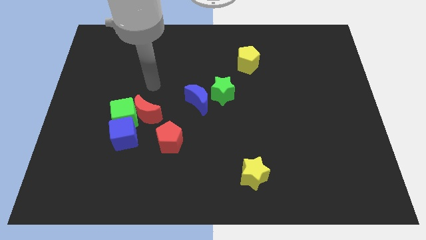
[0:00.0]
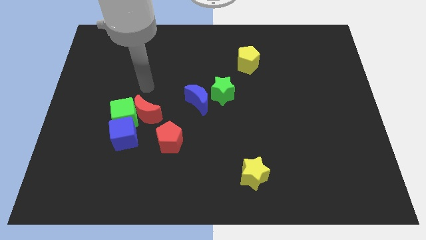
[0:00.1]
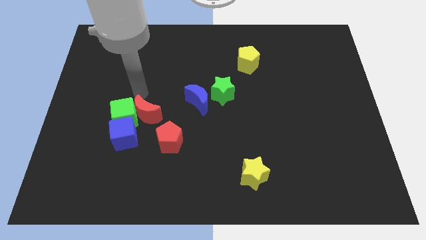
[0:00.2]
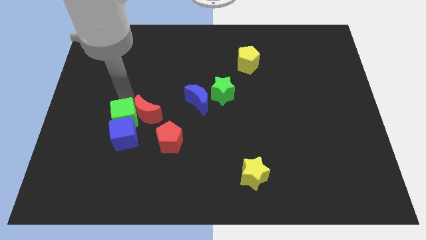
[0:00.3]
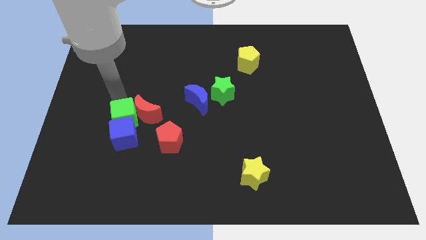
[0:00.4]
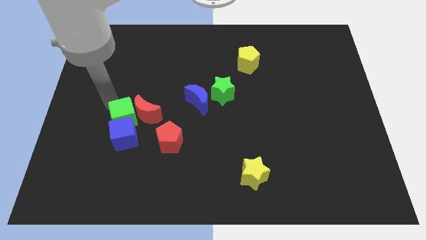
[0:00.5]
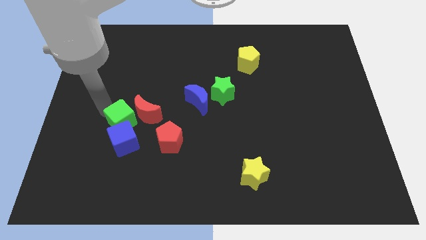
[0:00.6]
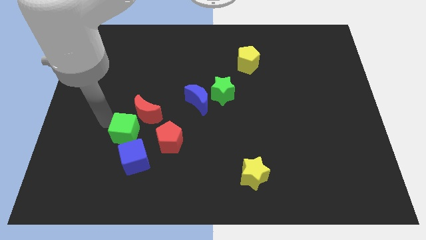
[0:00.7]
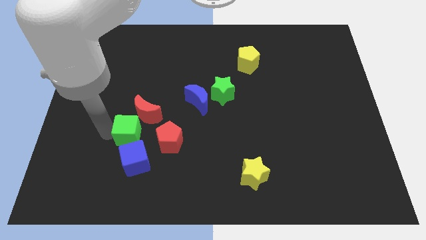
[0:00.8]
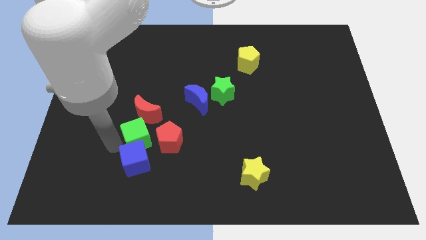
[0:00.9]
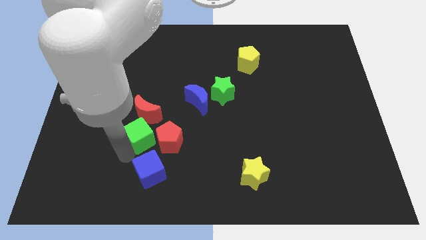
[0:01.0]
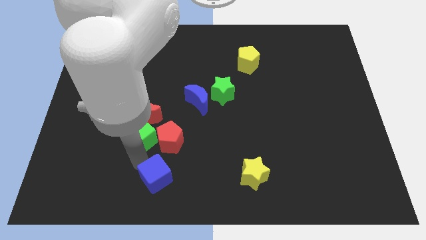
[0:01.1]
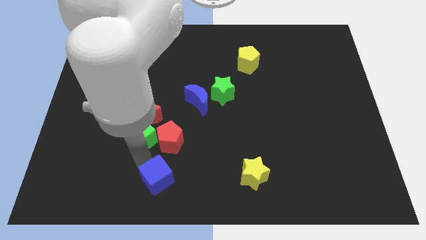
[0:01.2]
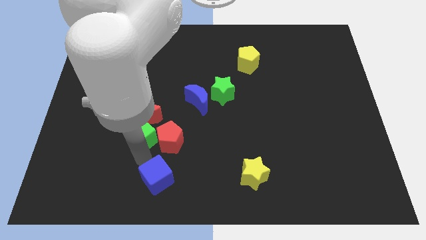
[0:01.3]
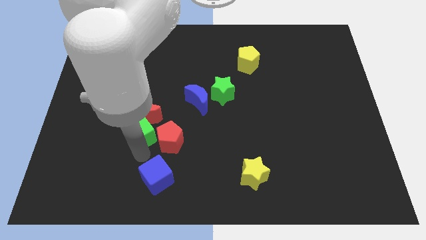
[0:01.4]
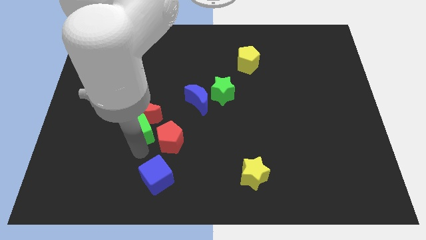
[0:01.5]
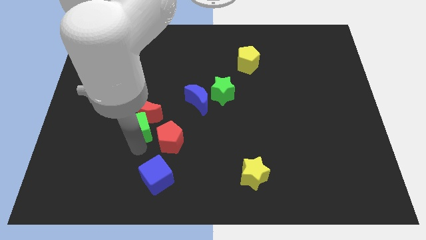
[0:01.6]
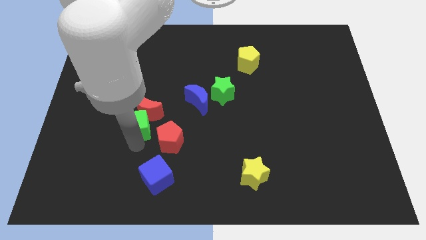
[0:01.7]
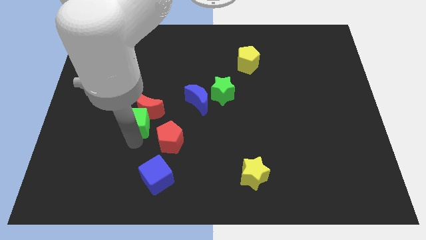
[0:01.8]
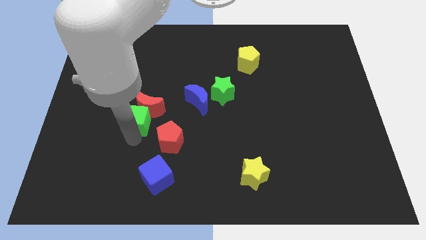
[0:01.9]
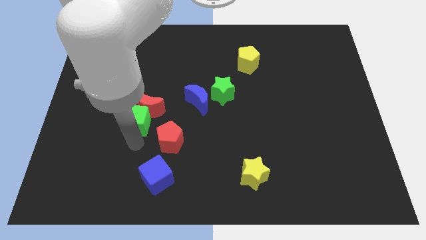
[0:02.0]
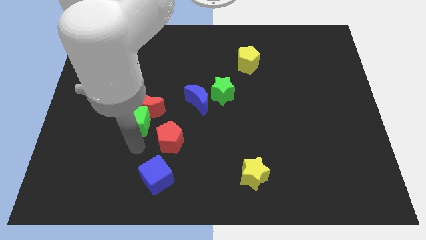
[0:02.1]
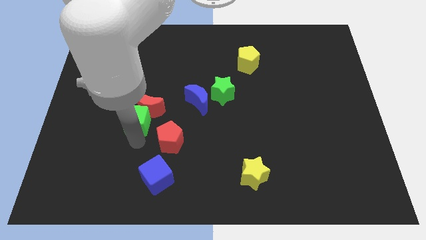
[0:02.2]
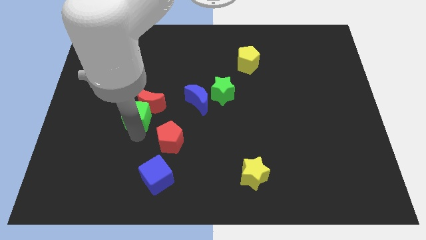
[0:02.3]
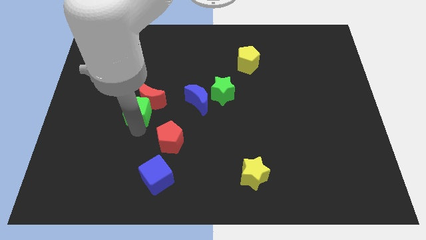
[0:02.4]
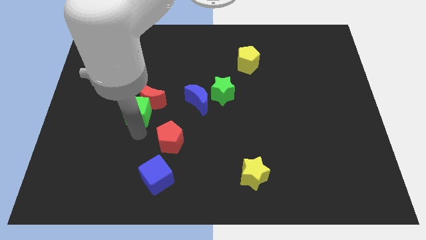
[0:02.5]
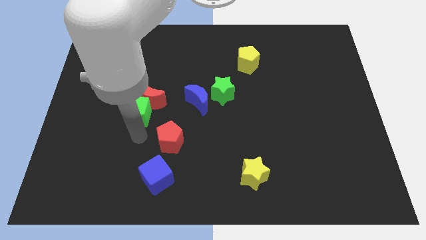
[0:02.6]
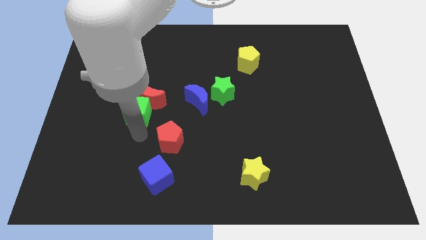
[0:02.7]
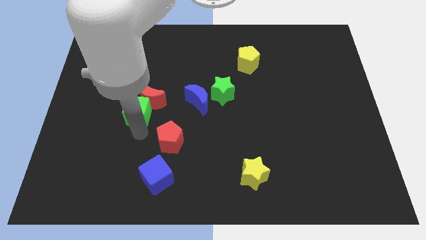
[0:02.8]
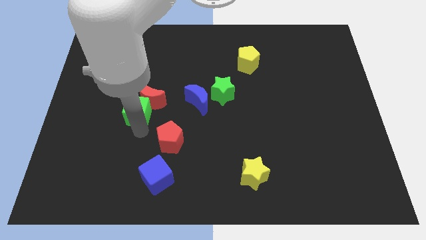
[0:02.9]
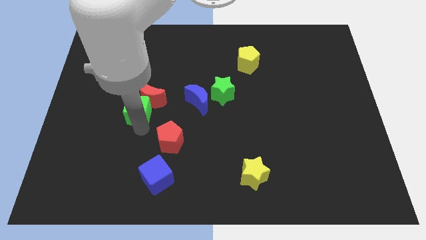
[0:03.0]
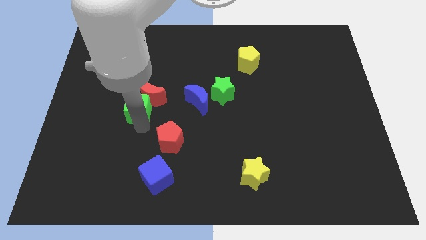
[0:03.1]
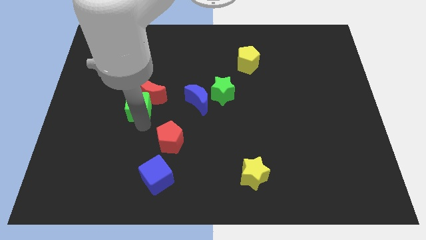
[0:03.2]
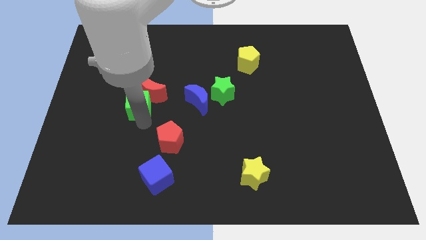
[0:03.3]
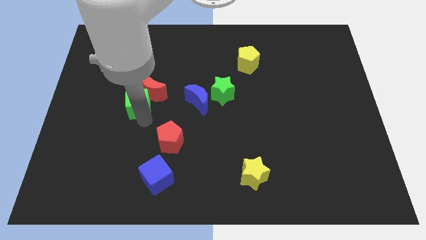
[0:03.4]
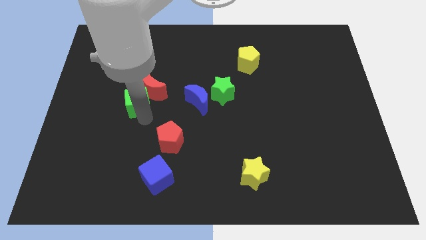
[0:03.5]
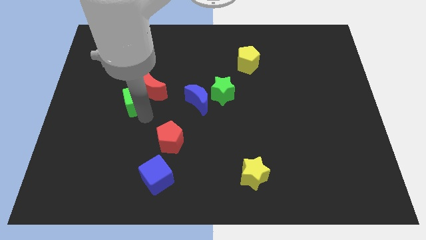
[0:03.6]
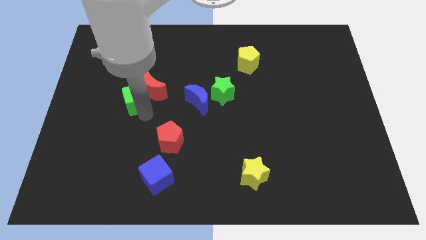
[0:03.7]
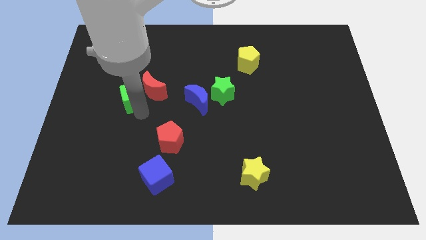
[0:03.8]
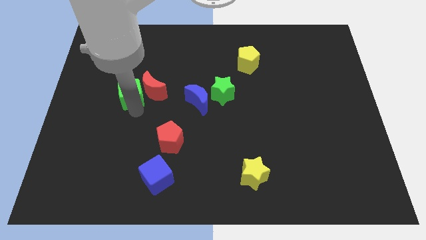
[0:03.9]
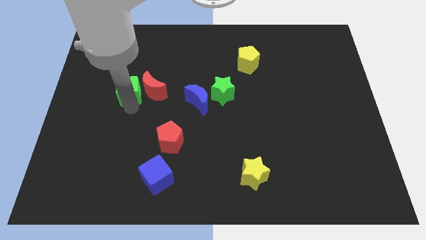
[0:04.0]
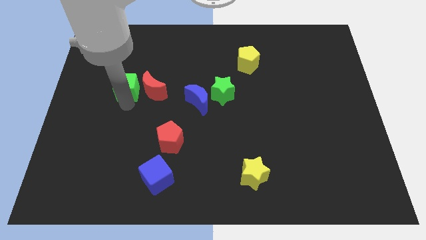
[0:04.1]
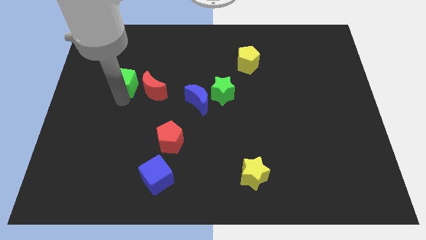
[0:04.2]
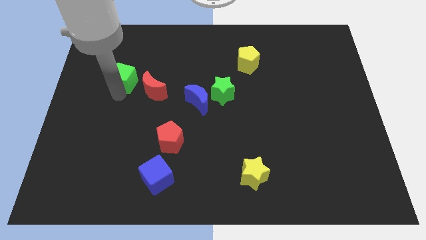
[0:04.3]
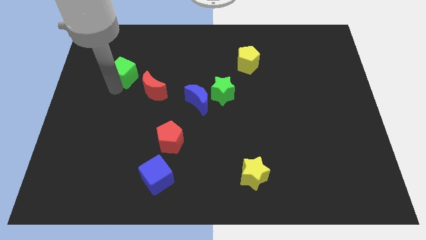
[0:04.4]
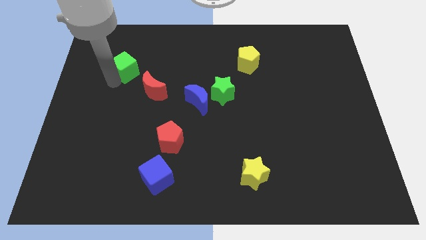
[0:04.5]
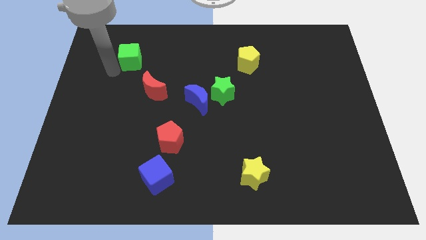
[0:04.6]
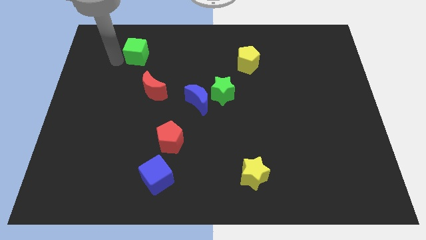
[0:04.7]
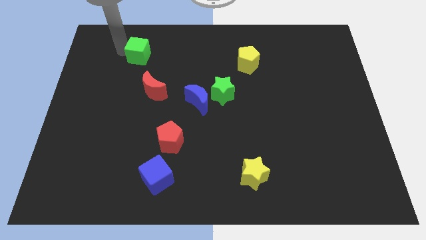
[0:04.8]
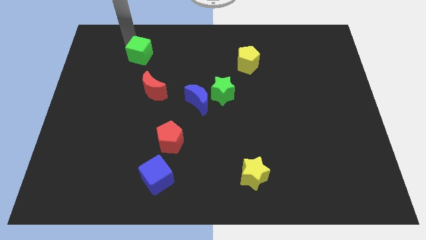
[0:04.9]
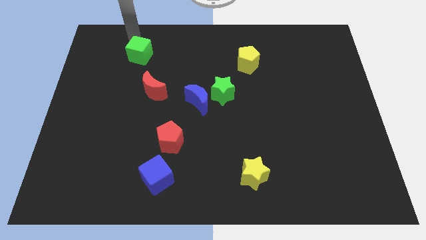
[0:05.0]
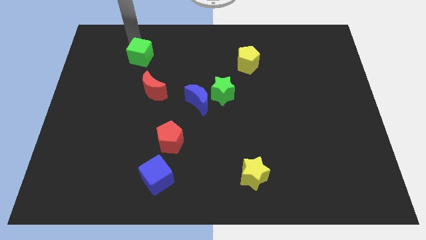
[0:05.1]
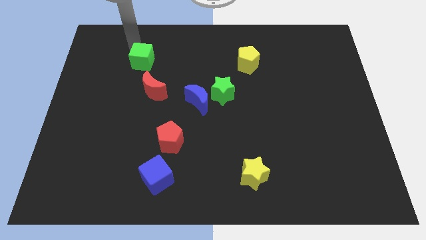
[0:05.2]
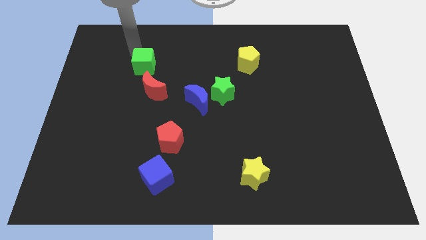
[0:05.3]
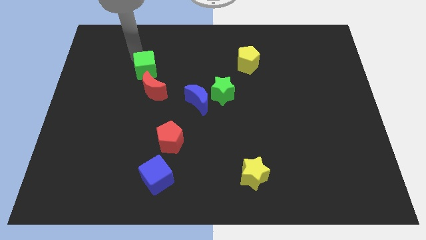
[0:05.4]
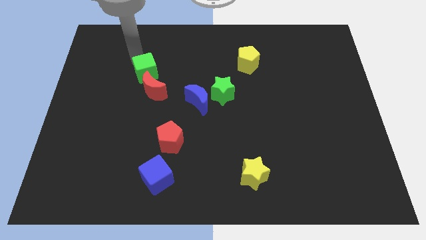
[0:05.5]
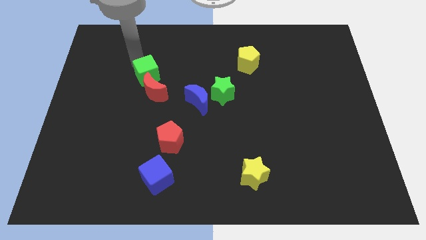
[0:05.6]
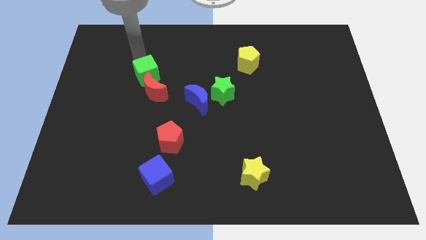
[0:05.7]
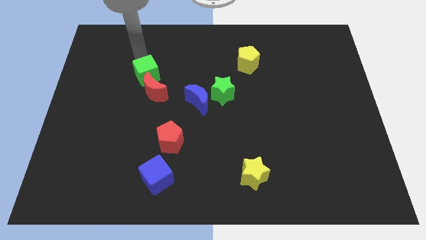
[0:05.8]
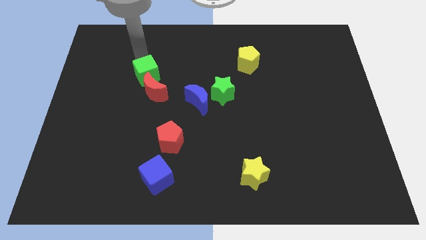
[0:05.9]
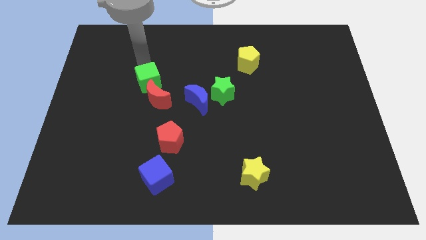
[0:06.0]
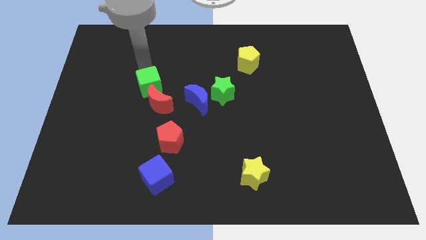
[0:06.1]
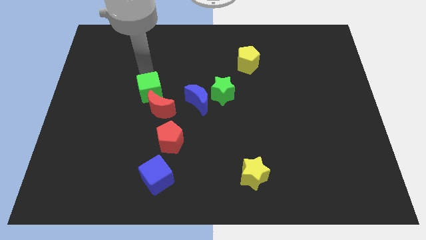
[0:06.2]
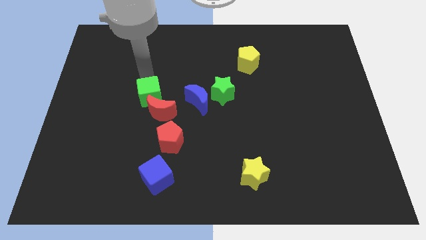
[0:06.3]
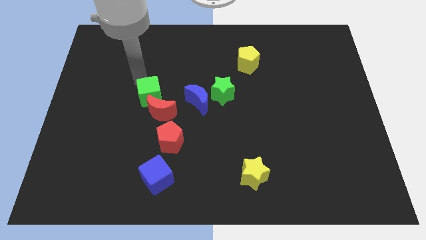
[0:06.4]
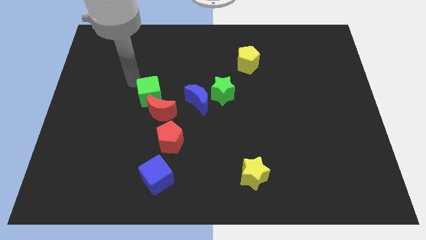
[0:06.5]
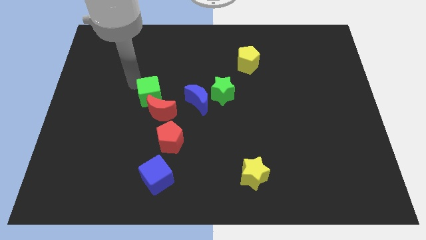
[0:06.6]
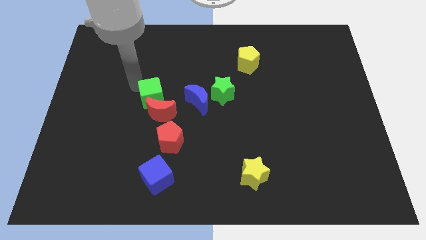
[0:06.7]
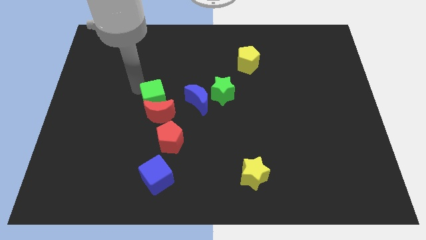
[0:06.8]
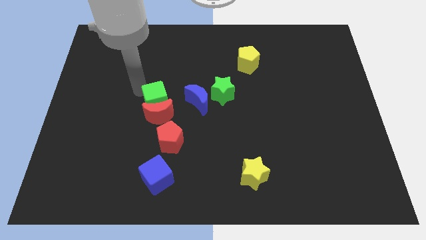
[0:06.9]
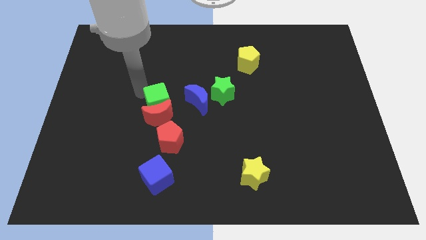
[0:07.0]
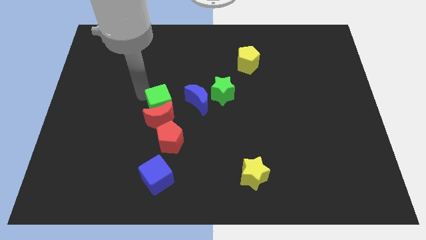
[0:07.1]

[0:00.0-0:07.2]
slide the green cube to the right a bit

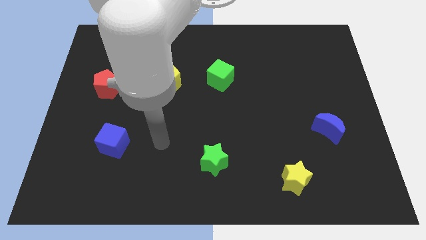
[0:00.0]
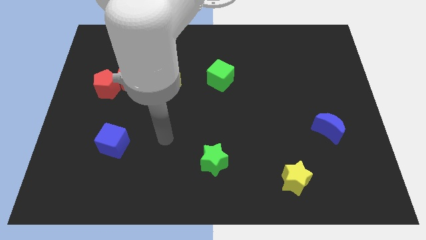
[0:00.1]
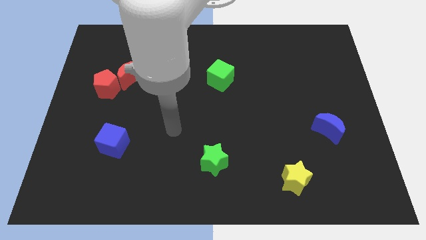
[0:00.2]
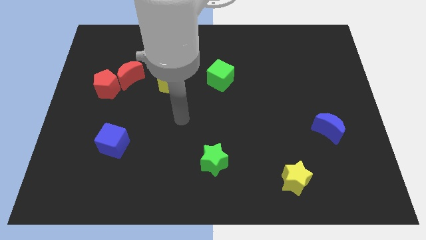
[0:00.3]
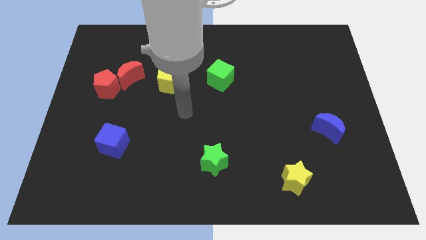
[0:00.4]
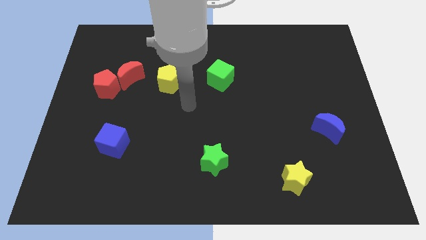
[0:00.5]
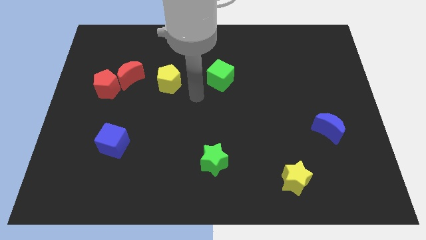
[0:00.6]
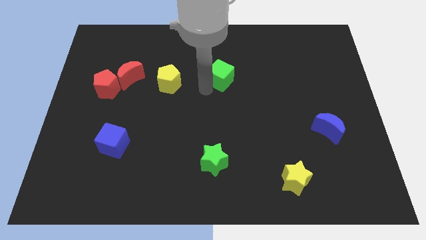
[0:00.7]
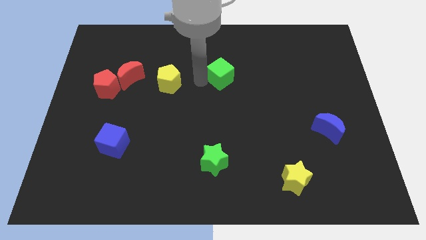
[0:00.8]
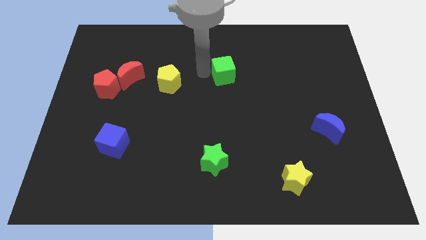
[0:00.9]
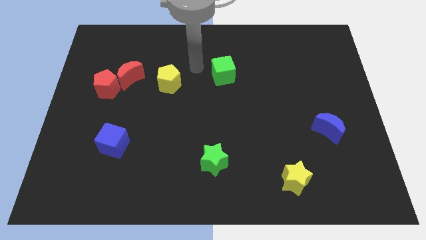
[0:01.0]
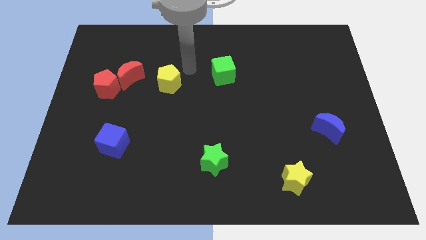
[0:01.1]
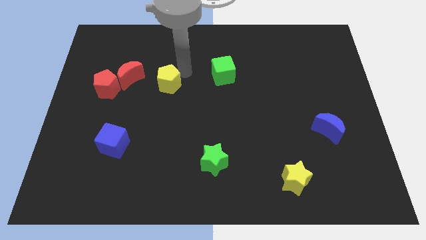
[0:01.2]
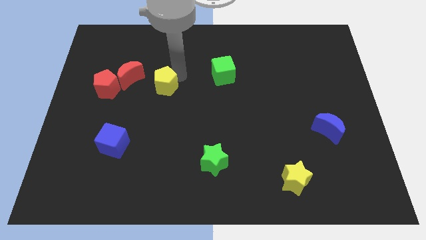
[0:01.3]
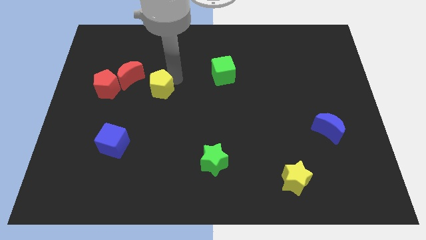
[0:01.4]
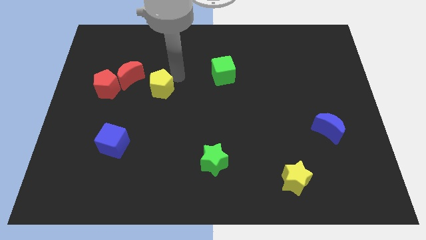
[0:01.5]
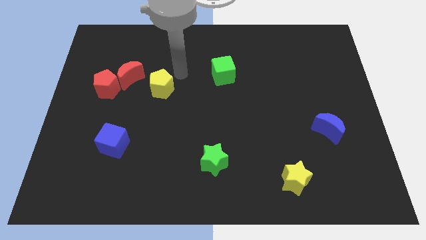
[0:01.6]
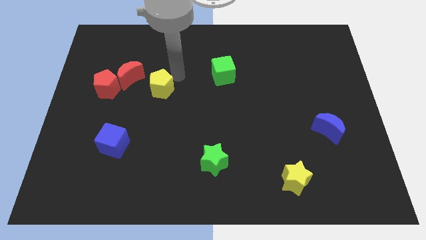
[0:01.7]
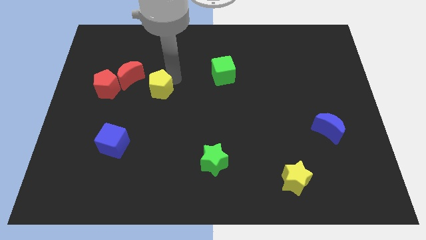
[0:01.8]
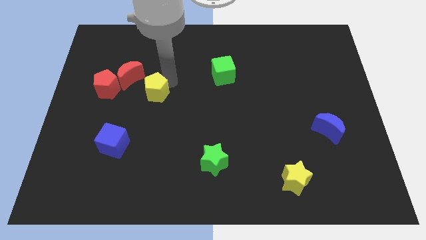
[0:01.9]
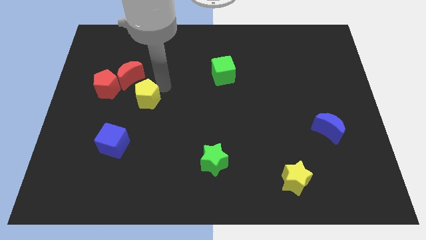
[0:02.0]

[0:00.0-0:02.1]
move the yellow pentagon a little down and left
